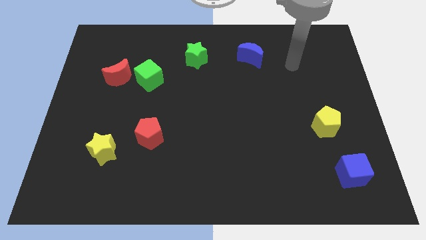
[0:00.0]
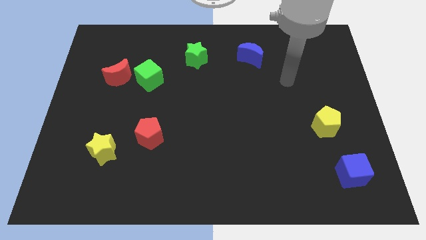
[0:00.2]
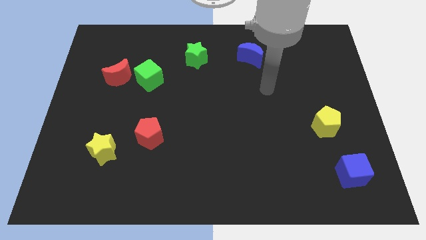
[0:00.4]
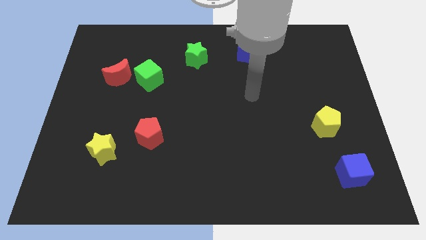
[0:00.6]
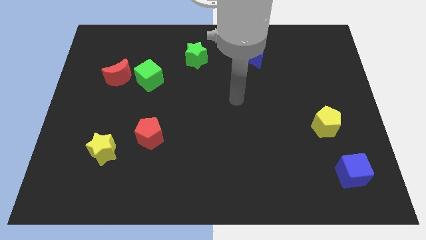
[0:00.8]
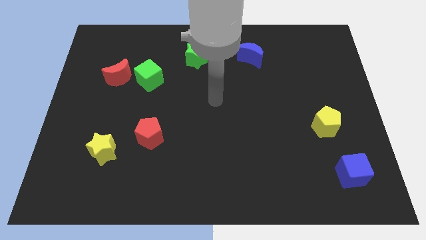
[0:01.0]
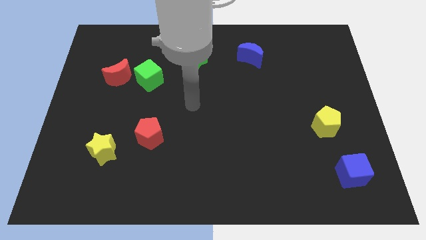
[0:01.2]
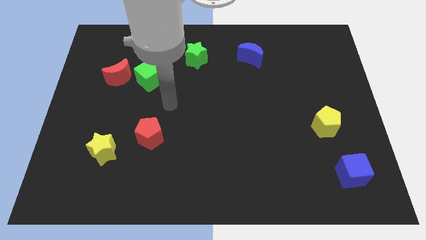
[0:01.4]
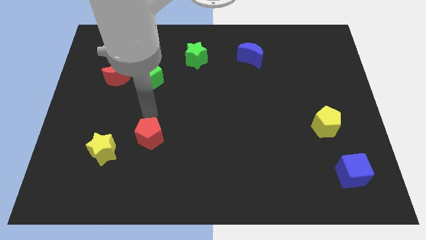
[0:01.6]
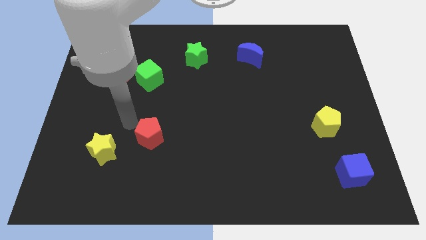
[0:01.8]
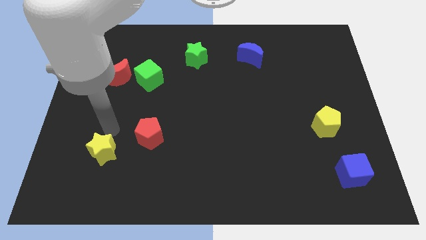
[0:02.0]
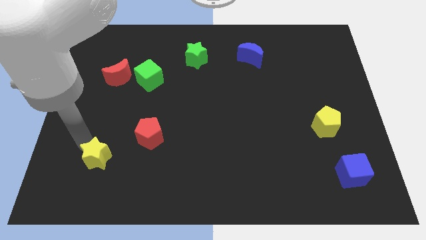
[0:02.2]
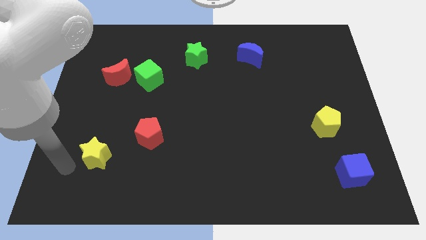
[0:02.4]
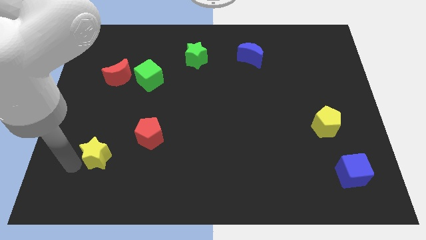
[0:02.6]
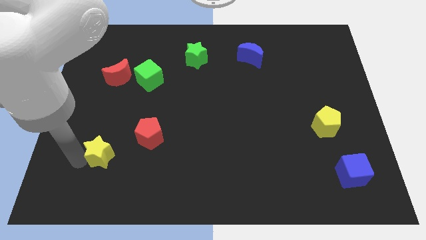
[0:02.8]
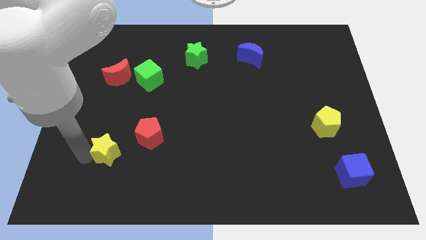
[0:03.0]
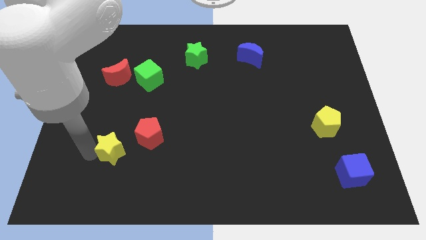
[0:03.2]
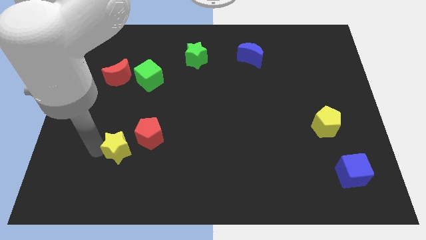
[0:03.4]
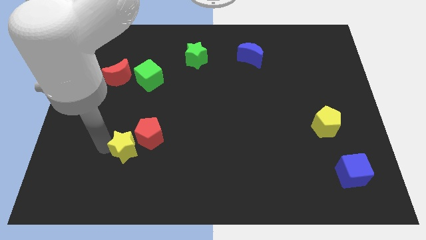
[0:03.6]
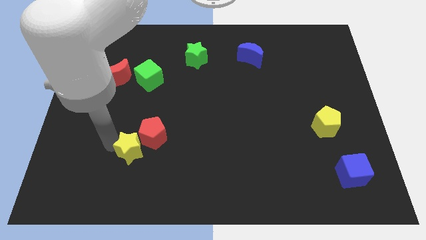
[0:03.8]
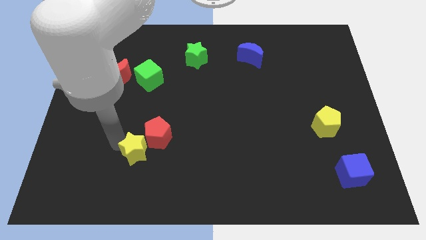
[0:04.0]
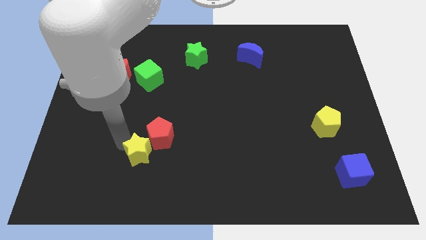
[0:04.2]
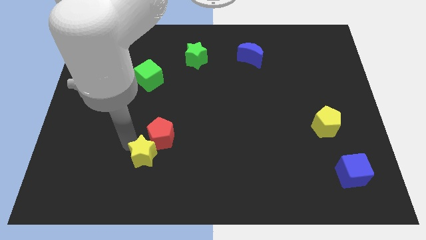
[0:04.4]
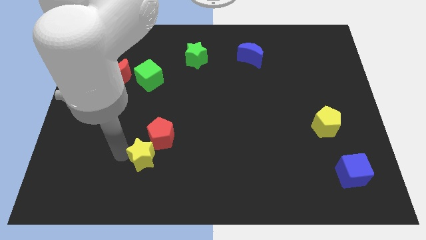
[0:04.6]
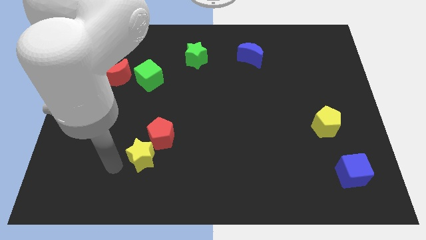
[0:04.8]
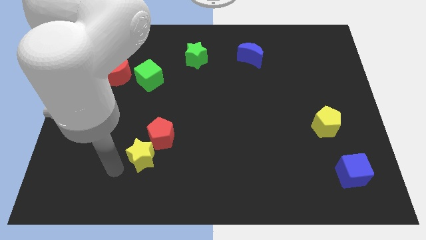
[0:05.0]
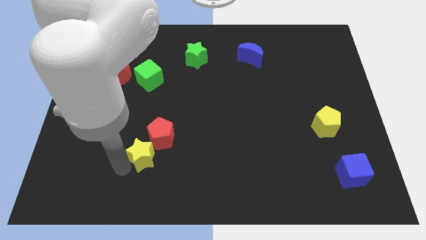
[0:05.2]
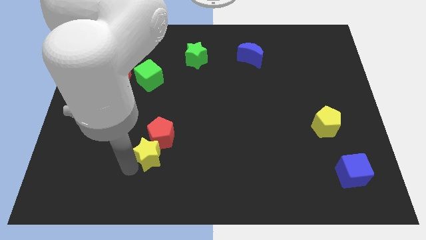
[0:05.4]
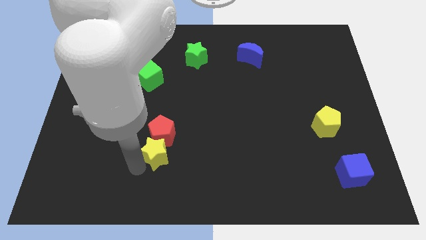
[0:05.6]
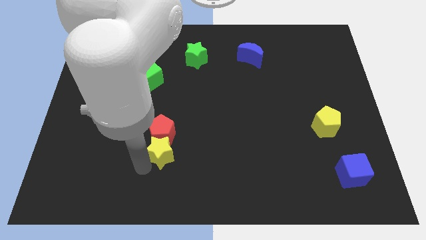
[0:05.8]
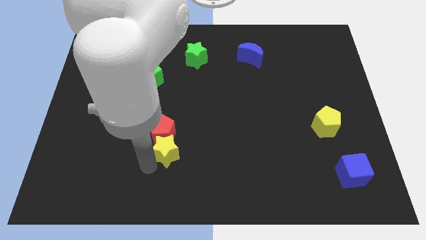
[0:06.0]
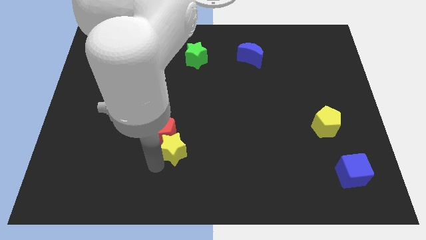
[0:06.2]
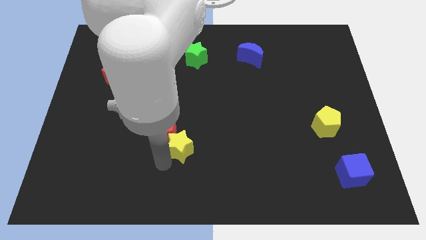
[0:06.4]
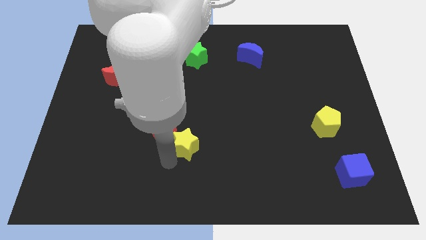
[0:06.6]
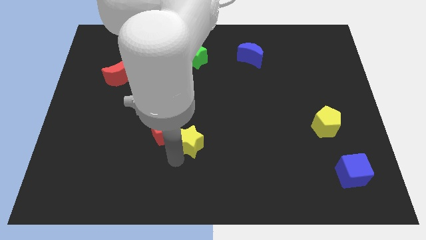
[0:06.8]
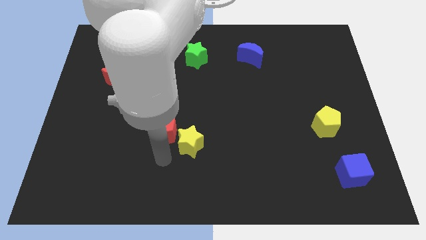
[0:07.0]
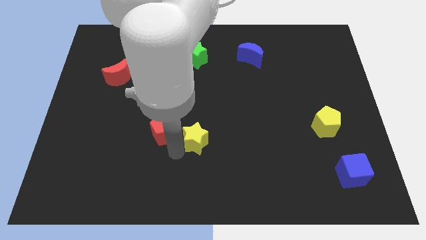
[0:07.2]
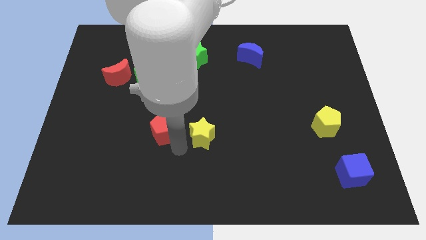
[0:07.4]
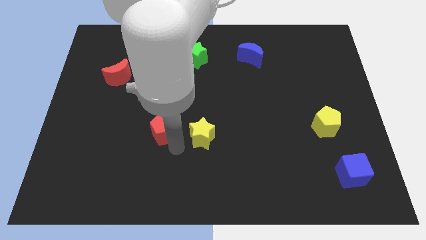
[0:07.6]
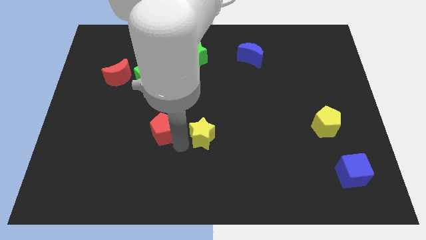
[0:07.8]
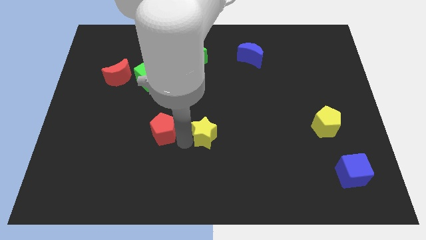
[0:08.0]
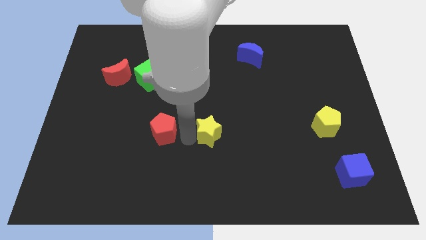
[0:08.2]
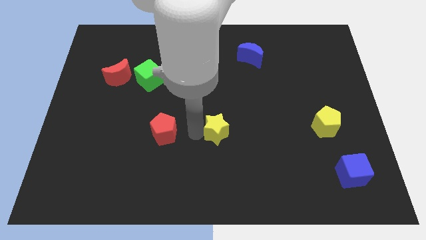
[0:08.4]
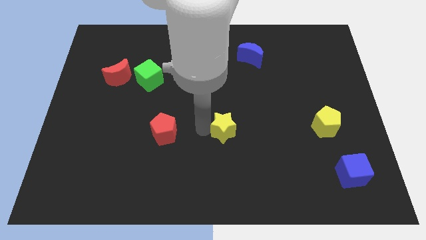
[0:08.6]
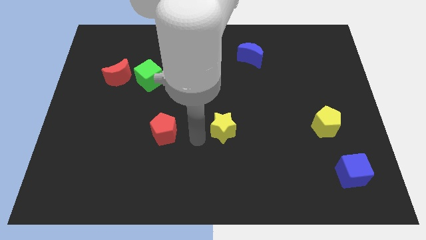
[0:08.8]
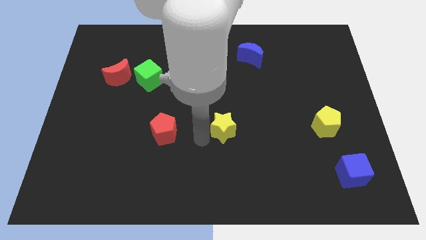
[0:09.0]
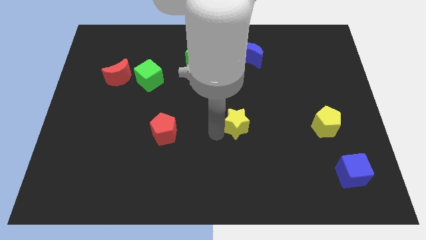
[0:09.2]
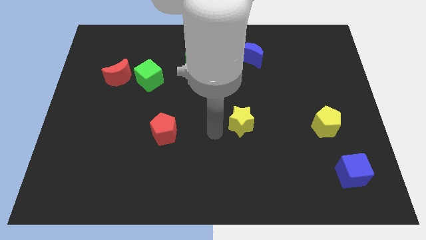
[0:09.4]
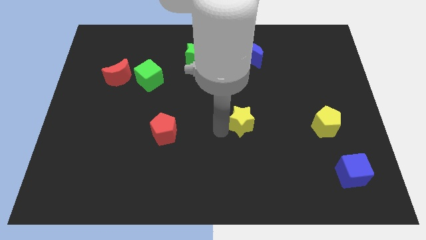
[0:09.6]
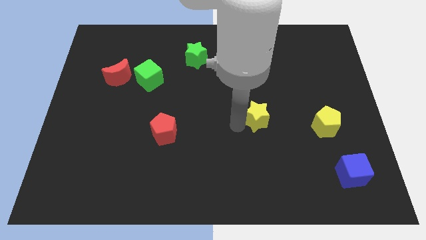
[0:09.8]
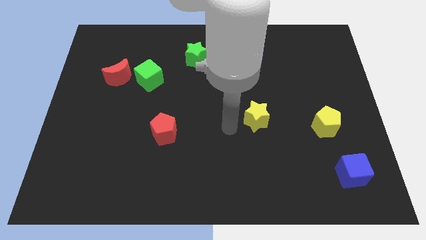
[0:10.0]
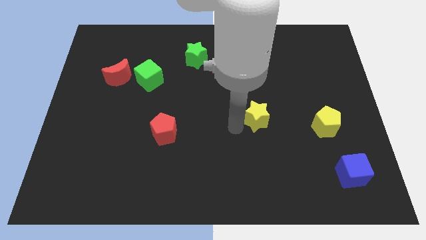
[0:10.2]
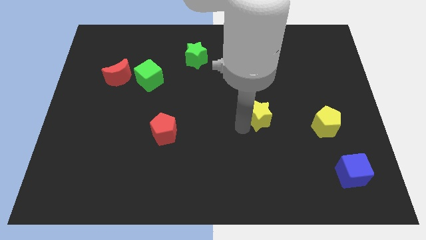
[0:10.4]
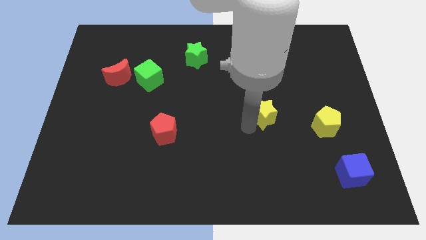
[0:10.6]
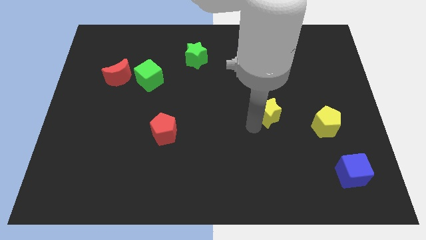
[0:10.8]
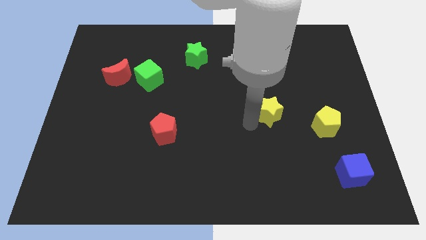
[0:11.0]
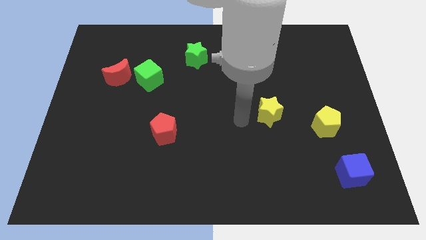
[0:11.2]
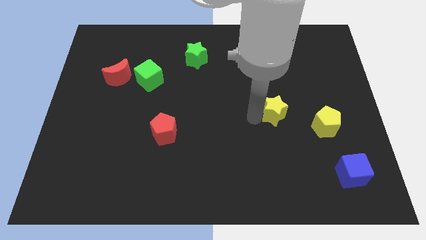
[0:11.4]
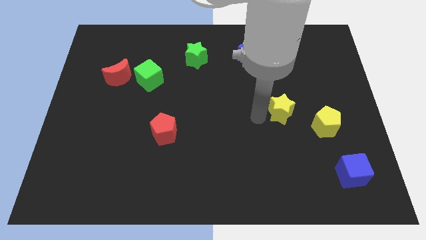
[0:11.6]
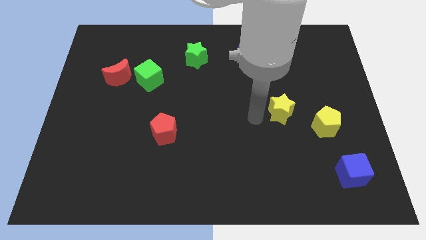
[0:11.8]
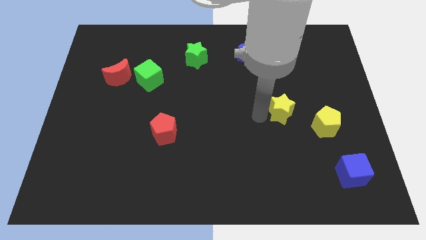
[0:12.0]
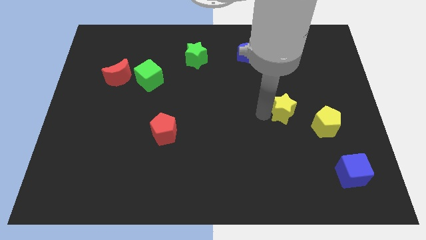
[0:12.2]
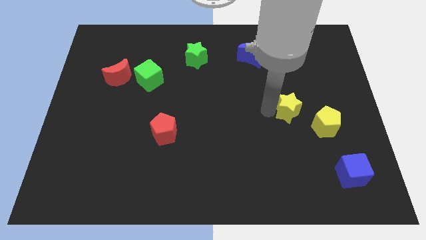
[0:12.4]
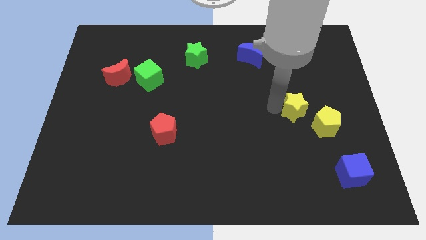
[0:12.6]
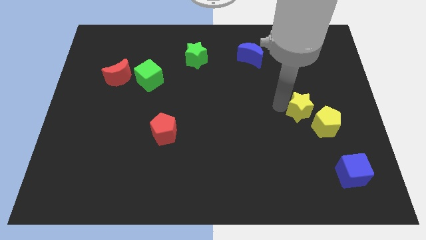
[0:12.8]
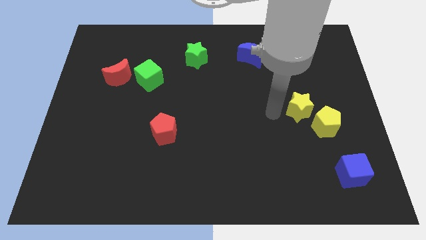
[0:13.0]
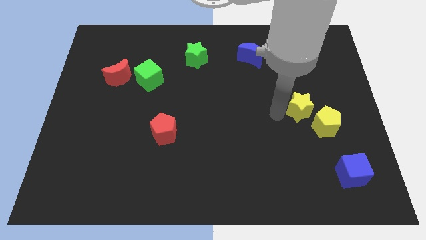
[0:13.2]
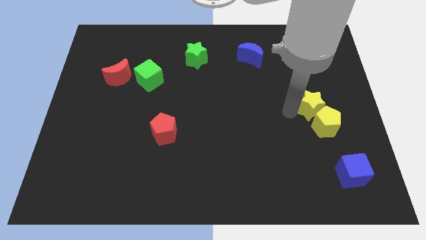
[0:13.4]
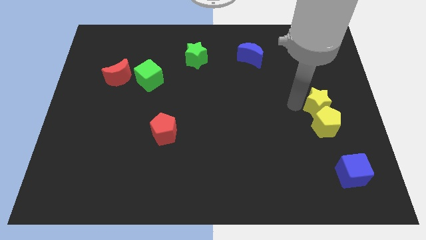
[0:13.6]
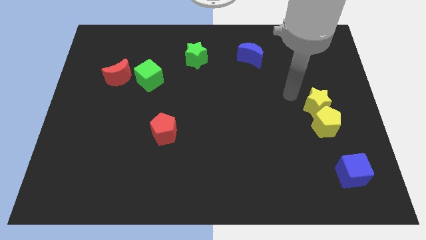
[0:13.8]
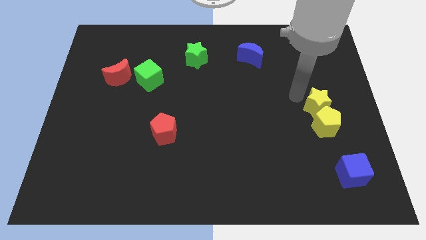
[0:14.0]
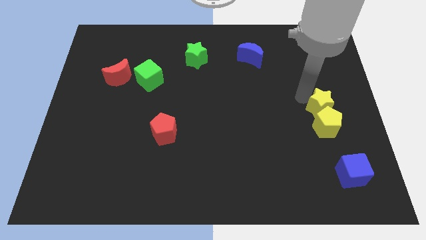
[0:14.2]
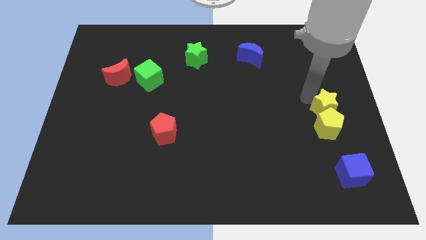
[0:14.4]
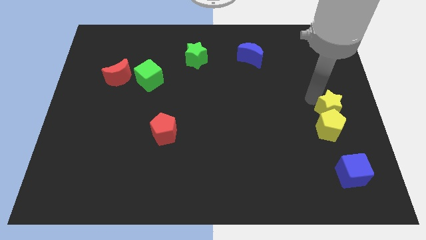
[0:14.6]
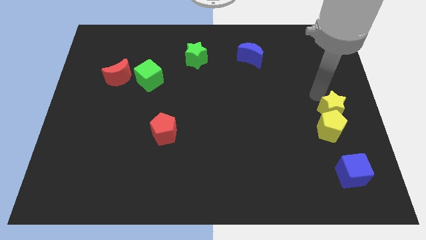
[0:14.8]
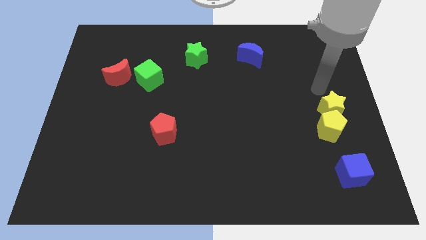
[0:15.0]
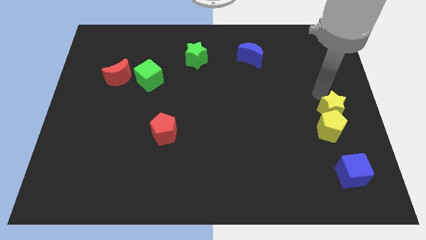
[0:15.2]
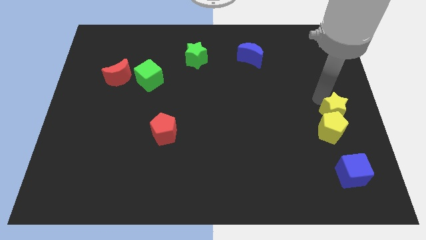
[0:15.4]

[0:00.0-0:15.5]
push the yellow star to the top of the blue cube
